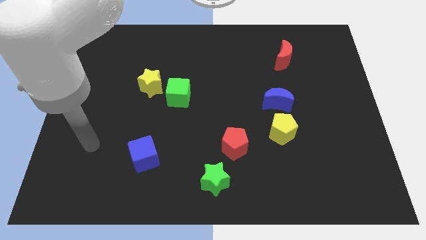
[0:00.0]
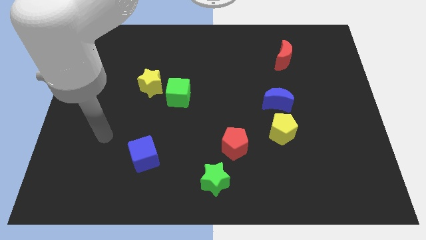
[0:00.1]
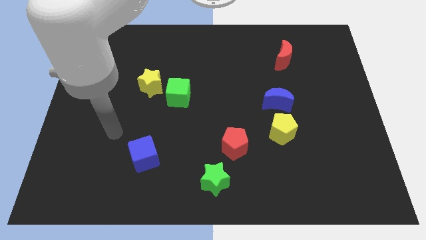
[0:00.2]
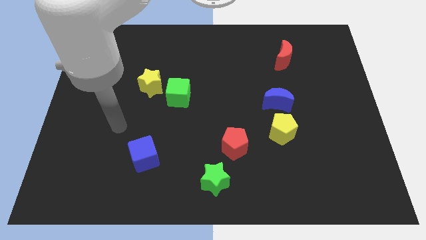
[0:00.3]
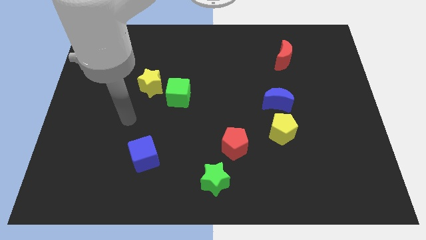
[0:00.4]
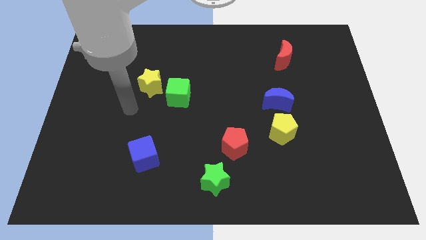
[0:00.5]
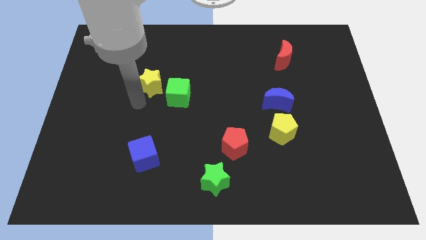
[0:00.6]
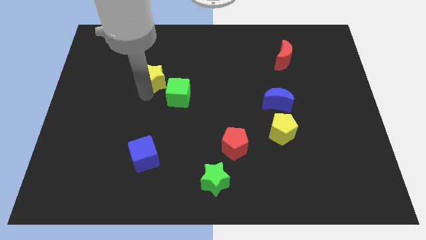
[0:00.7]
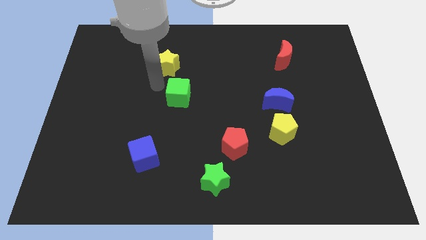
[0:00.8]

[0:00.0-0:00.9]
pull the green cube apart from the yellow star

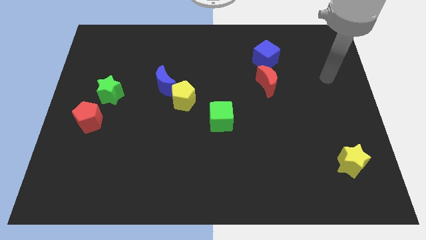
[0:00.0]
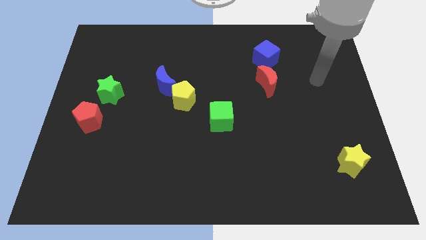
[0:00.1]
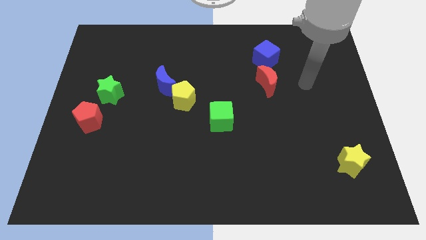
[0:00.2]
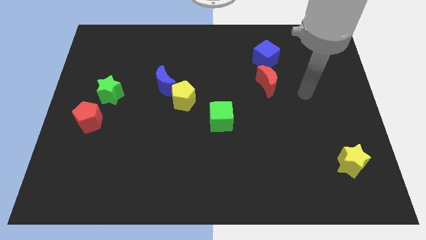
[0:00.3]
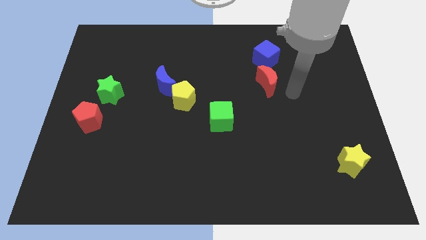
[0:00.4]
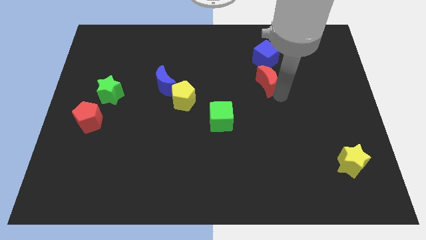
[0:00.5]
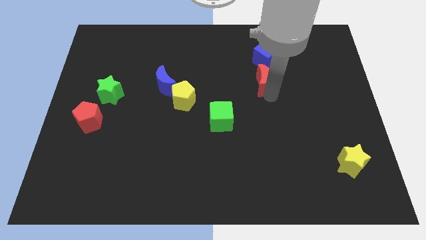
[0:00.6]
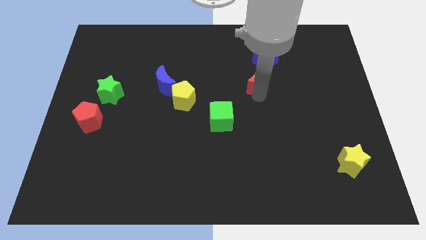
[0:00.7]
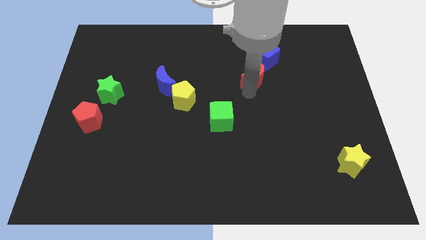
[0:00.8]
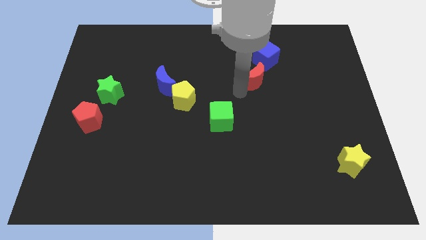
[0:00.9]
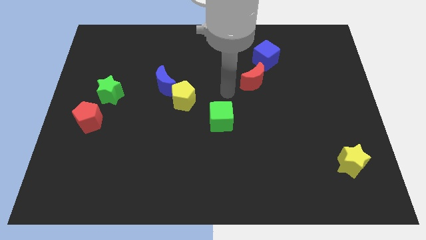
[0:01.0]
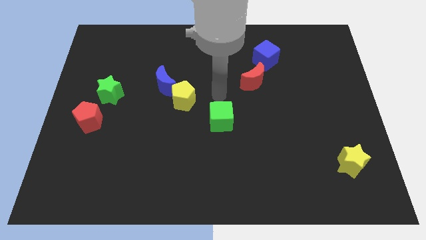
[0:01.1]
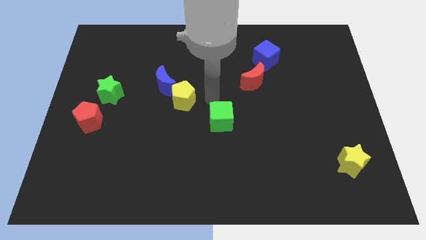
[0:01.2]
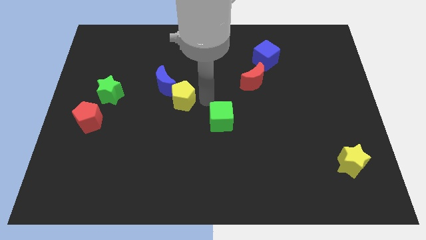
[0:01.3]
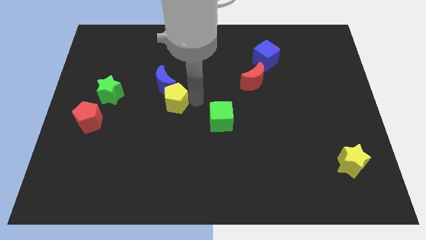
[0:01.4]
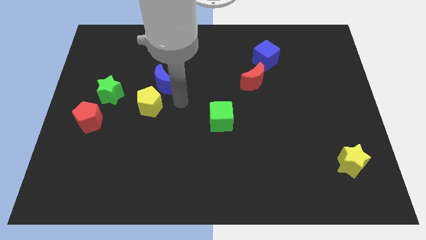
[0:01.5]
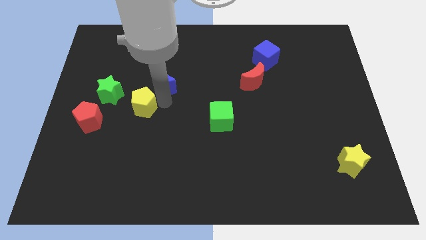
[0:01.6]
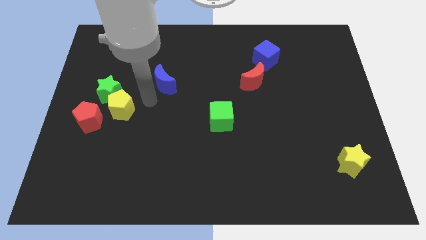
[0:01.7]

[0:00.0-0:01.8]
separate the blue moon from the yellow pentagon

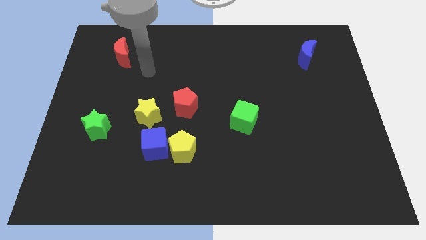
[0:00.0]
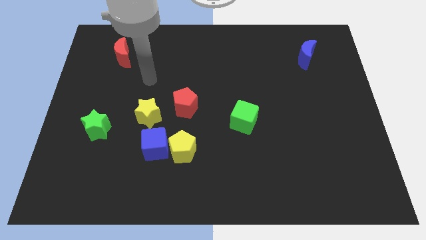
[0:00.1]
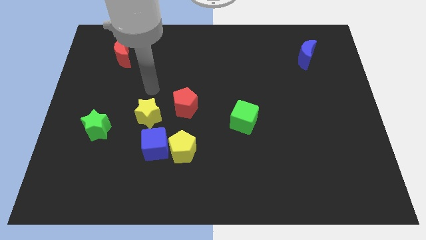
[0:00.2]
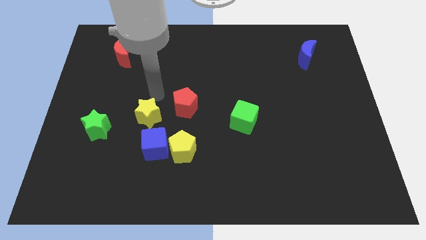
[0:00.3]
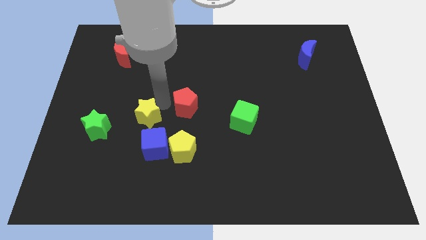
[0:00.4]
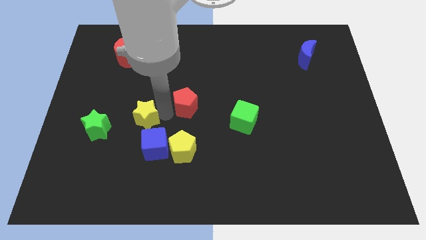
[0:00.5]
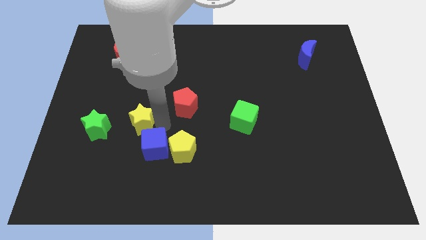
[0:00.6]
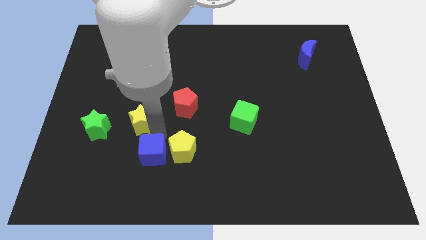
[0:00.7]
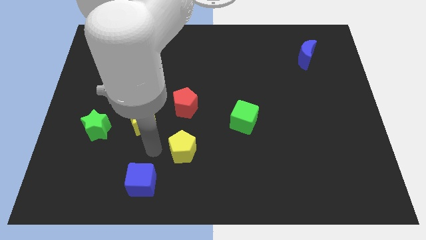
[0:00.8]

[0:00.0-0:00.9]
move the yellow pentagon away from the blue cube

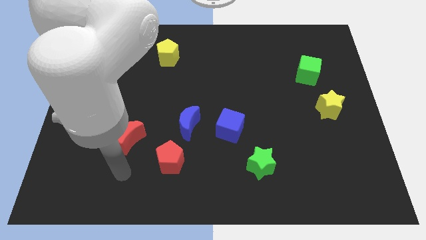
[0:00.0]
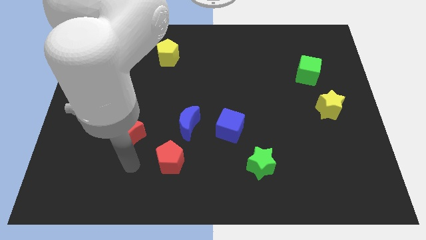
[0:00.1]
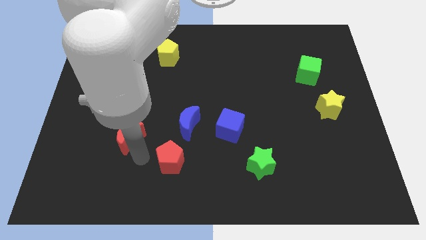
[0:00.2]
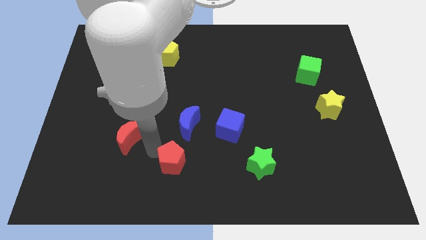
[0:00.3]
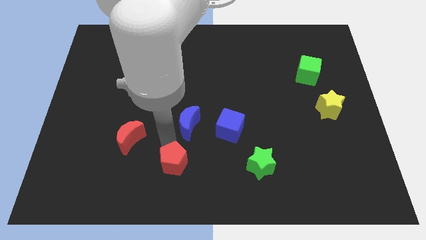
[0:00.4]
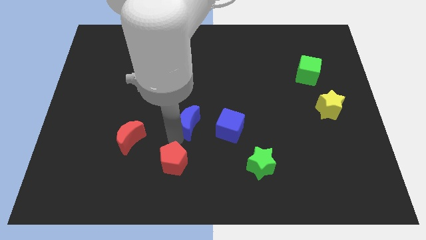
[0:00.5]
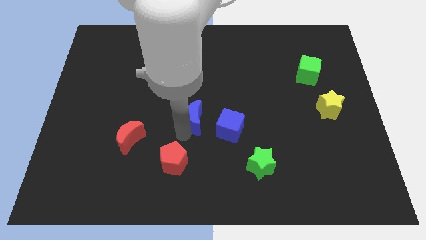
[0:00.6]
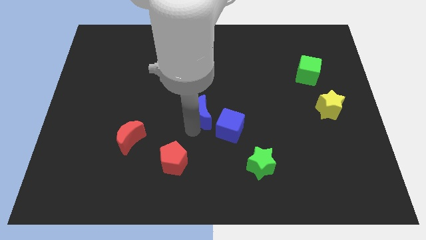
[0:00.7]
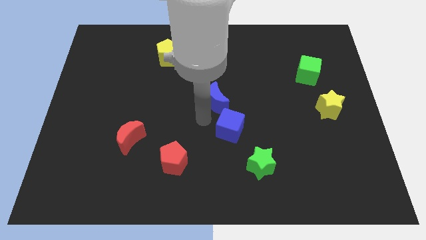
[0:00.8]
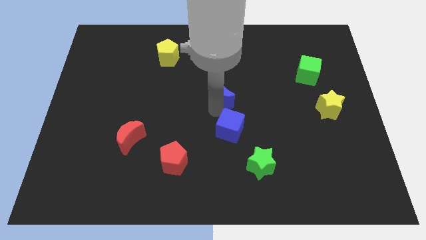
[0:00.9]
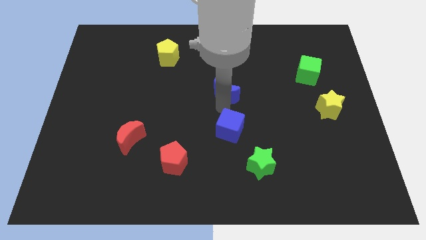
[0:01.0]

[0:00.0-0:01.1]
separate the blue cube from the blue moon

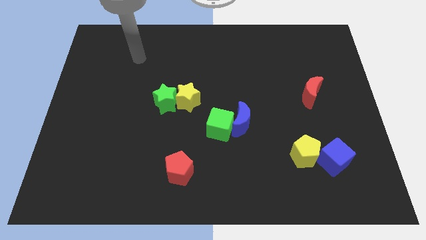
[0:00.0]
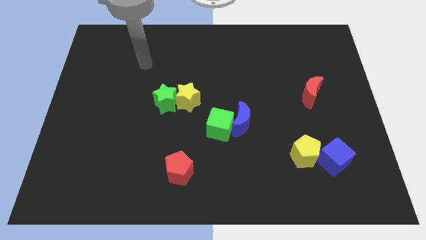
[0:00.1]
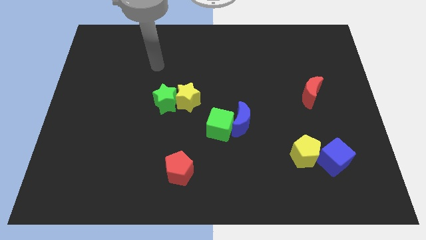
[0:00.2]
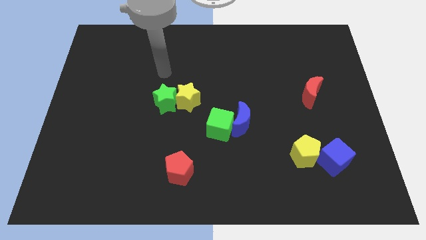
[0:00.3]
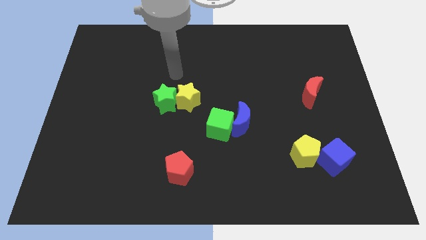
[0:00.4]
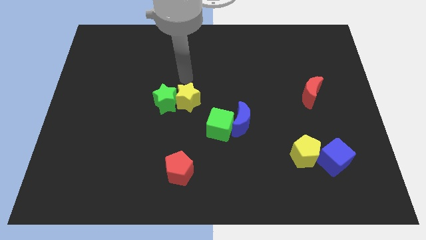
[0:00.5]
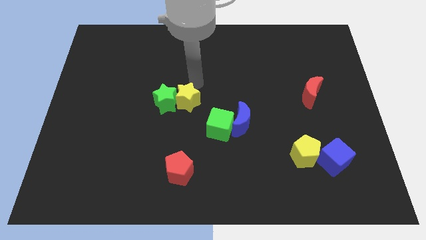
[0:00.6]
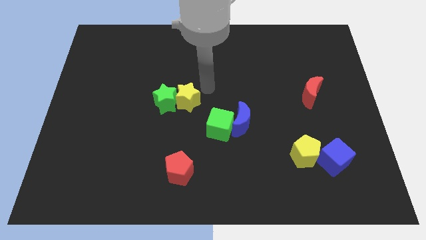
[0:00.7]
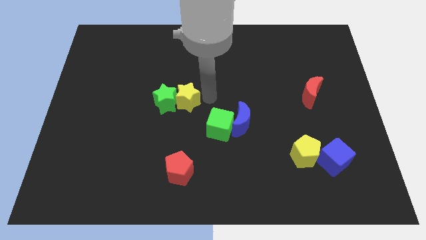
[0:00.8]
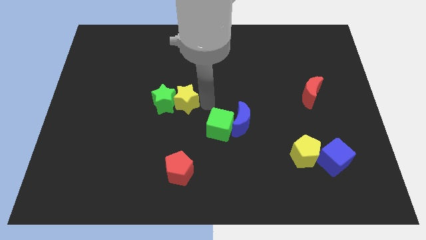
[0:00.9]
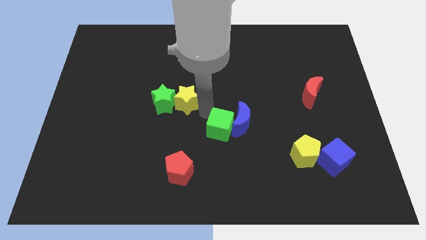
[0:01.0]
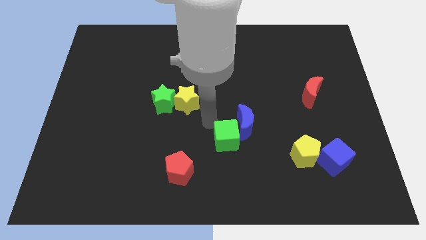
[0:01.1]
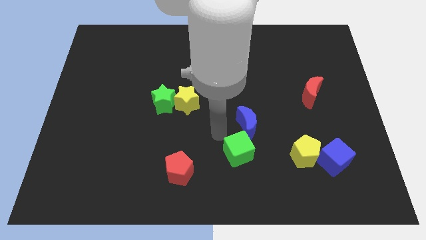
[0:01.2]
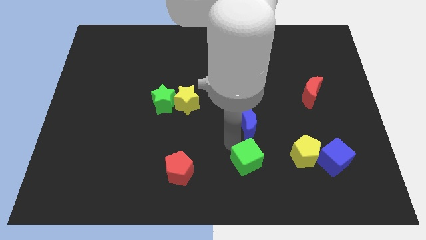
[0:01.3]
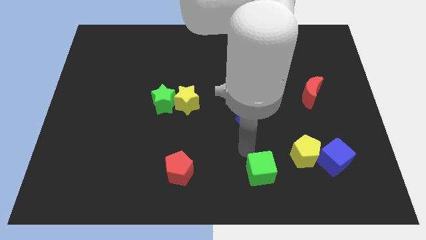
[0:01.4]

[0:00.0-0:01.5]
separate the blue moon from the green cube

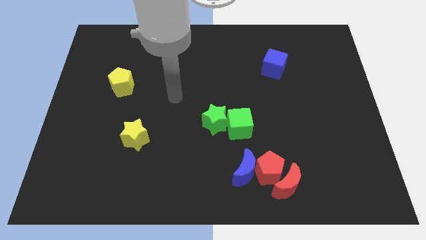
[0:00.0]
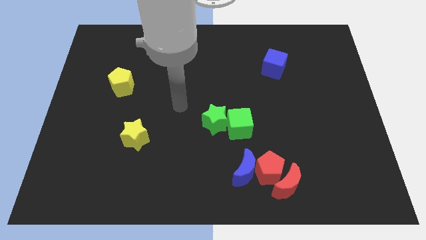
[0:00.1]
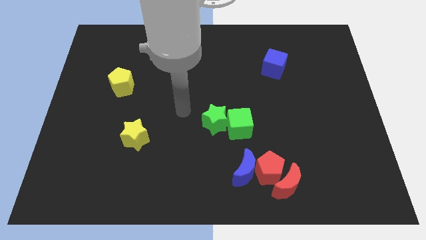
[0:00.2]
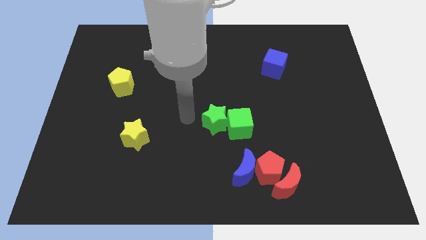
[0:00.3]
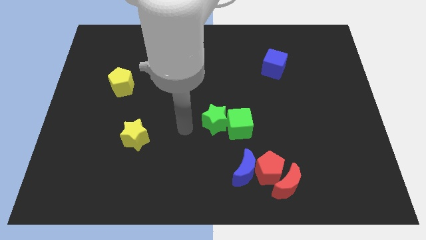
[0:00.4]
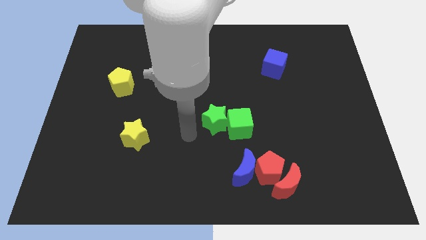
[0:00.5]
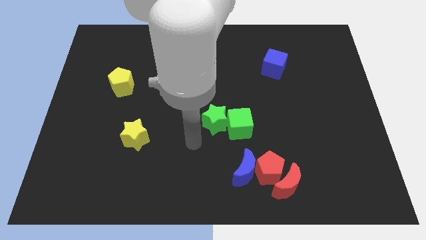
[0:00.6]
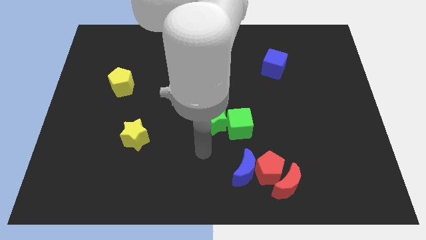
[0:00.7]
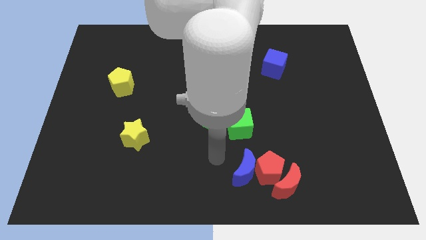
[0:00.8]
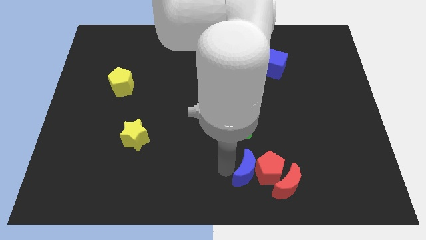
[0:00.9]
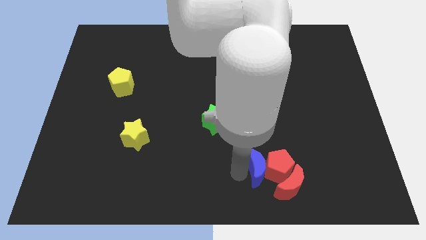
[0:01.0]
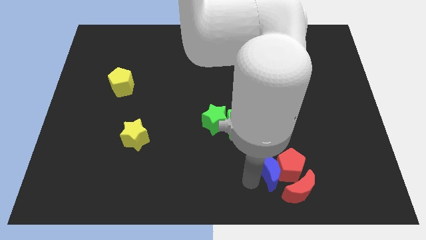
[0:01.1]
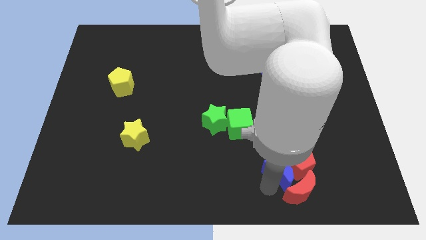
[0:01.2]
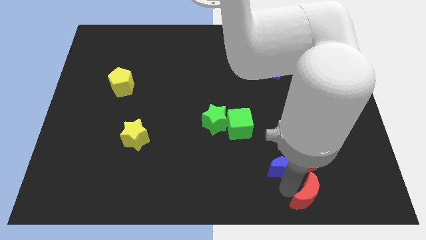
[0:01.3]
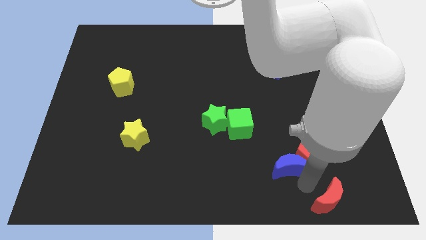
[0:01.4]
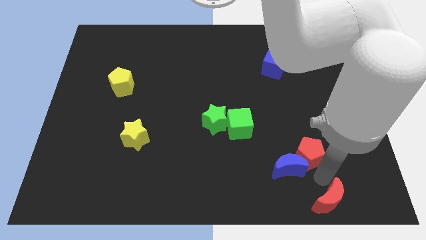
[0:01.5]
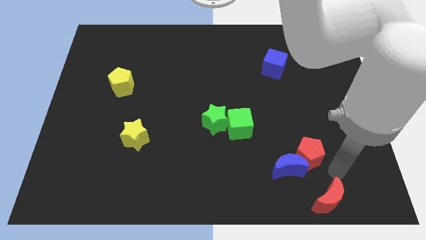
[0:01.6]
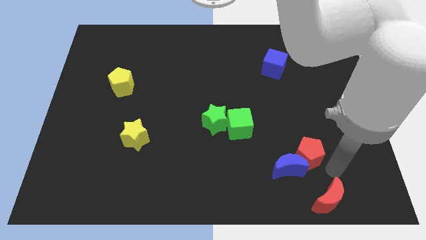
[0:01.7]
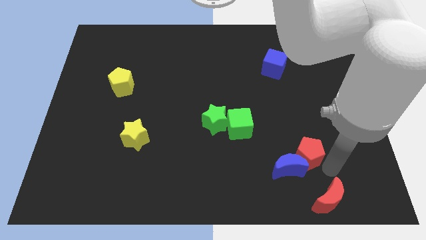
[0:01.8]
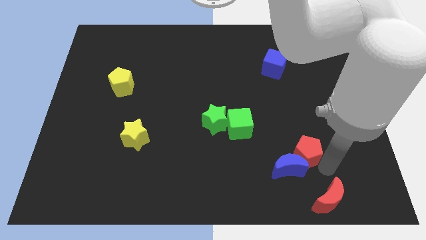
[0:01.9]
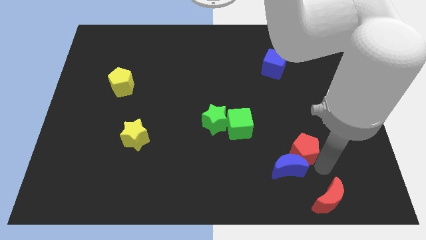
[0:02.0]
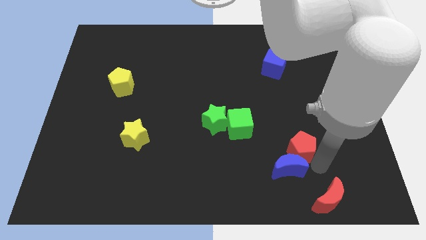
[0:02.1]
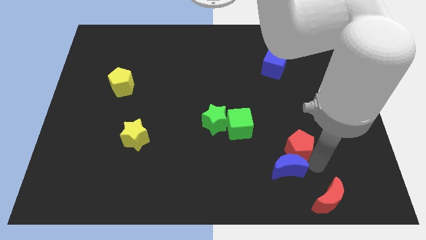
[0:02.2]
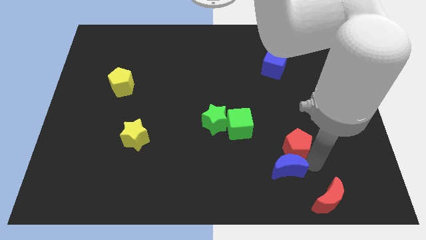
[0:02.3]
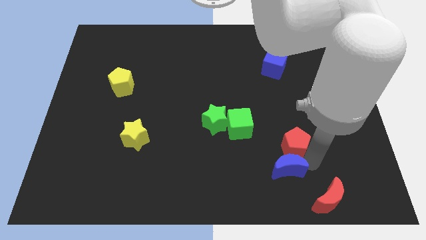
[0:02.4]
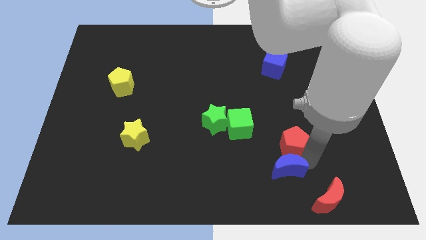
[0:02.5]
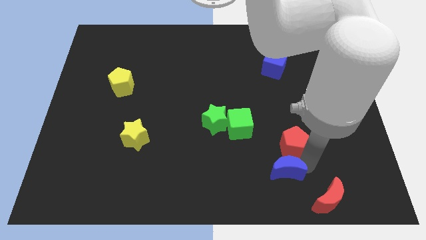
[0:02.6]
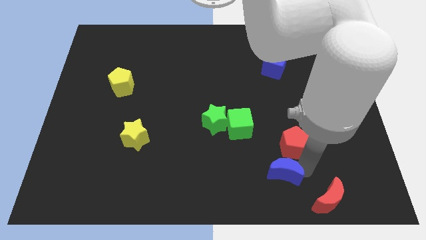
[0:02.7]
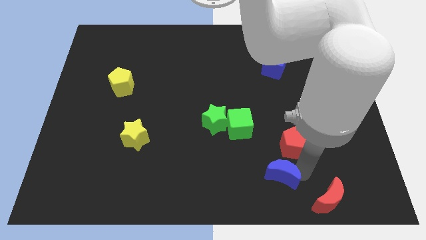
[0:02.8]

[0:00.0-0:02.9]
pull the red pentagon apart from the red moon and blue moon

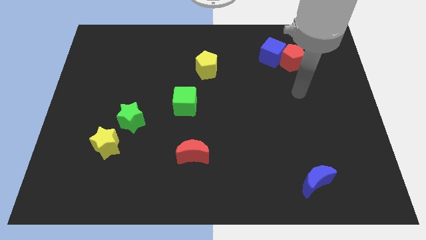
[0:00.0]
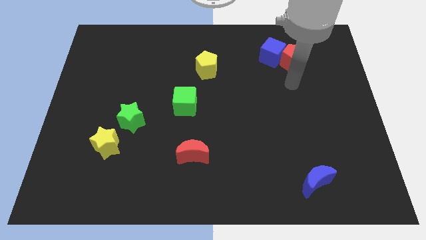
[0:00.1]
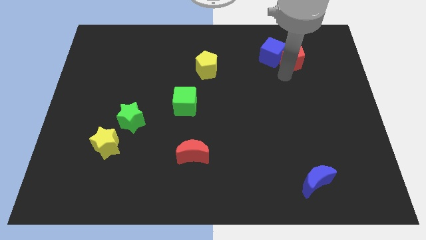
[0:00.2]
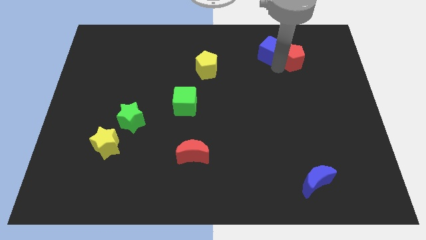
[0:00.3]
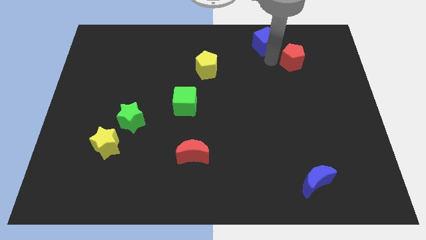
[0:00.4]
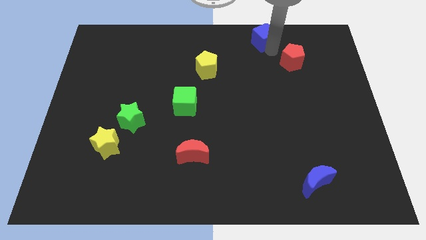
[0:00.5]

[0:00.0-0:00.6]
pull the red pentagon apart from the blue cube
